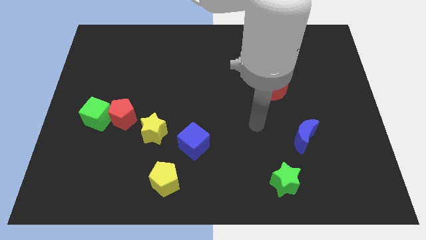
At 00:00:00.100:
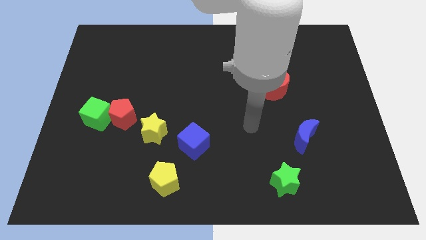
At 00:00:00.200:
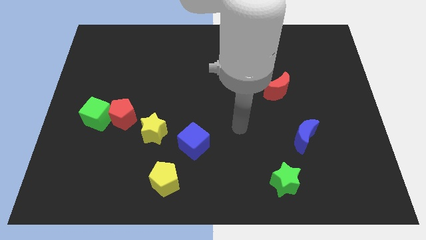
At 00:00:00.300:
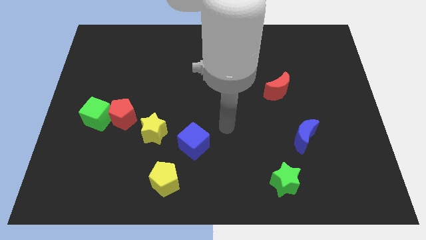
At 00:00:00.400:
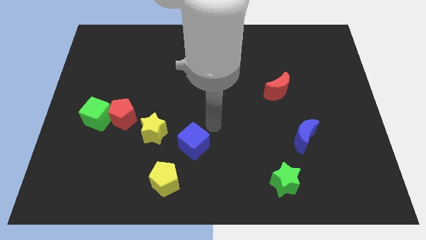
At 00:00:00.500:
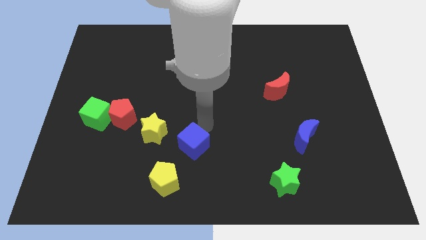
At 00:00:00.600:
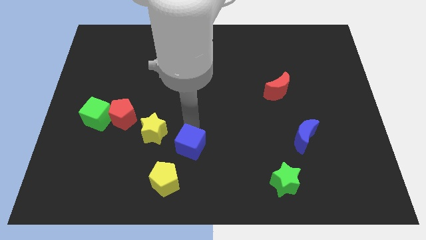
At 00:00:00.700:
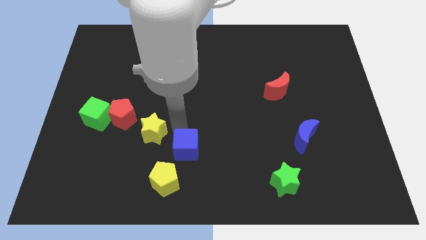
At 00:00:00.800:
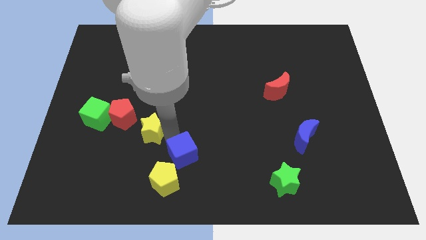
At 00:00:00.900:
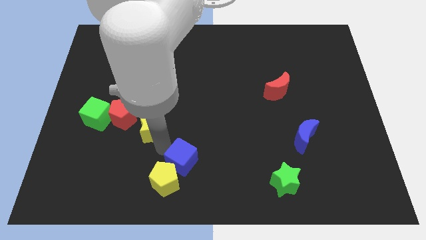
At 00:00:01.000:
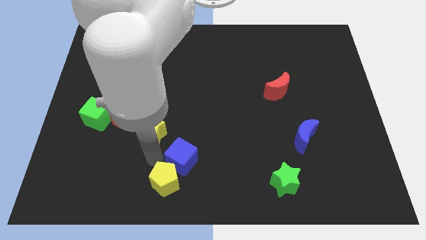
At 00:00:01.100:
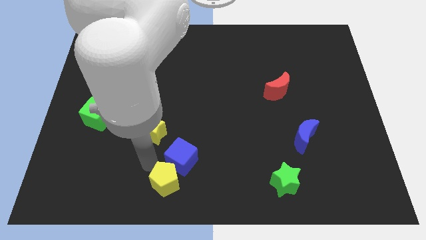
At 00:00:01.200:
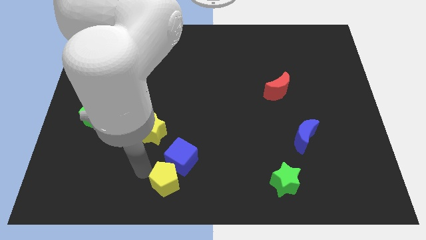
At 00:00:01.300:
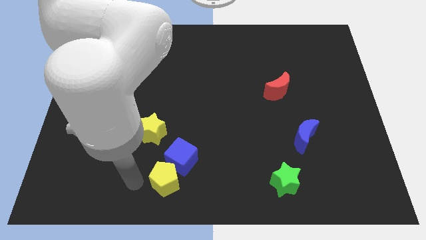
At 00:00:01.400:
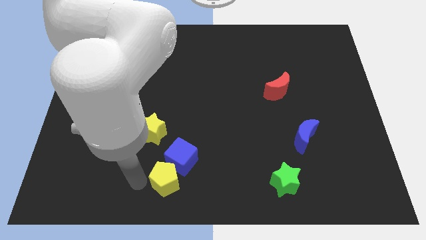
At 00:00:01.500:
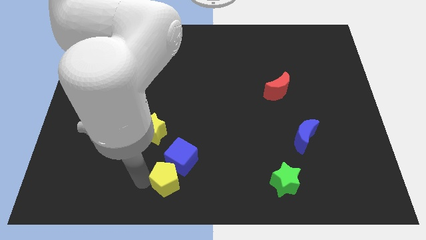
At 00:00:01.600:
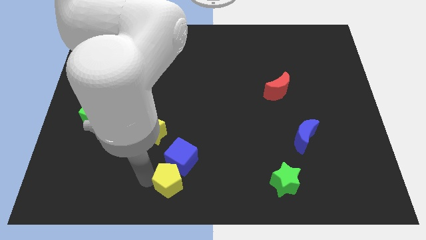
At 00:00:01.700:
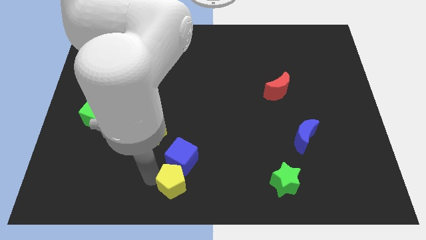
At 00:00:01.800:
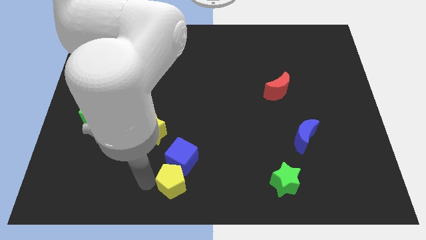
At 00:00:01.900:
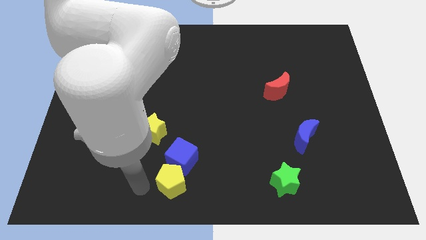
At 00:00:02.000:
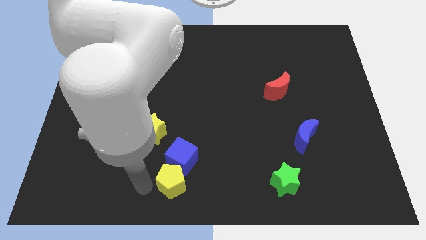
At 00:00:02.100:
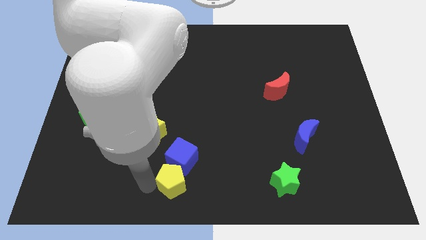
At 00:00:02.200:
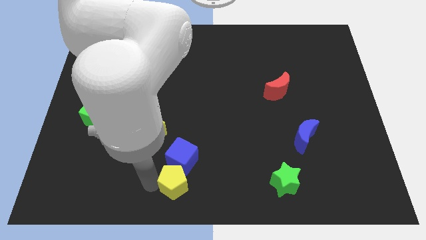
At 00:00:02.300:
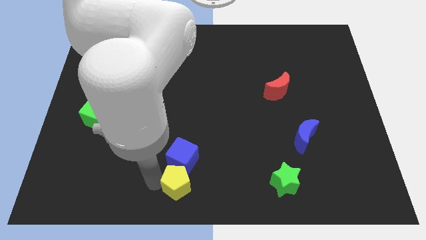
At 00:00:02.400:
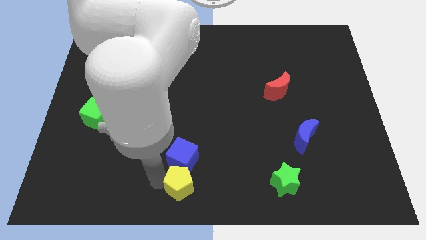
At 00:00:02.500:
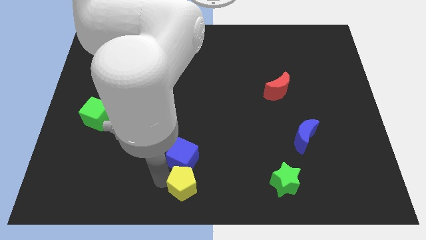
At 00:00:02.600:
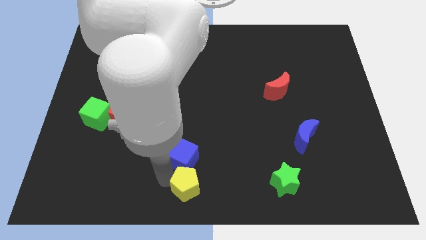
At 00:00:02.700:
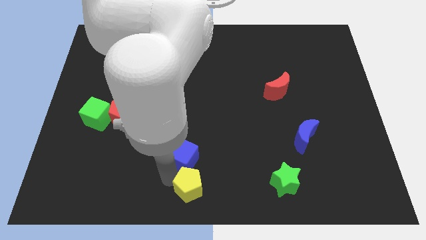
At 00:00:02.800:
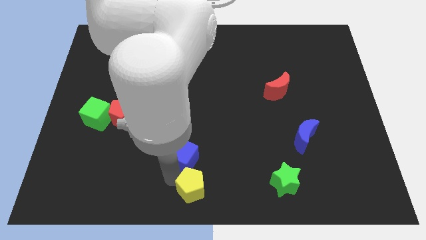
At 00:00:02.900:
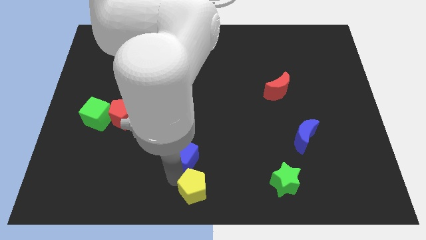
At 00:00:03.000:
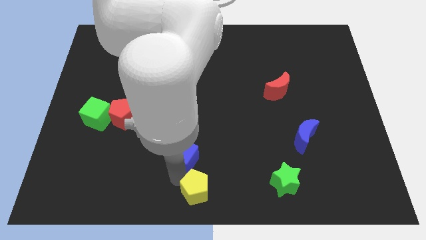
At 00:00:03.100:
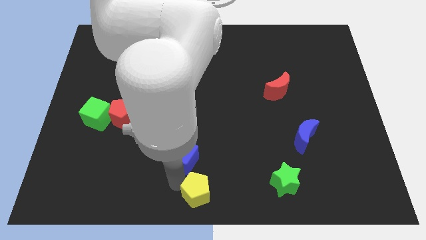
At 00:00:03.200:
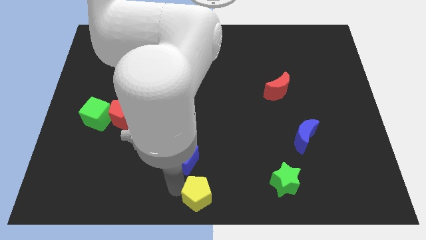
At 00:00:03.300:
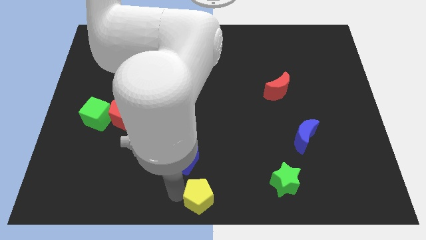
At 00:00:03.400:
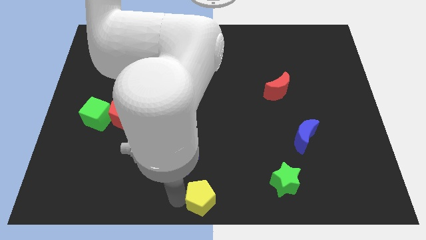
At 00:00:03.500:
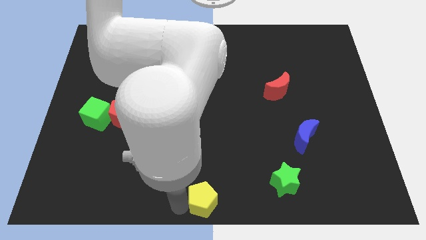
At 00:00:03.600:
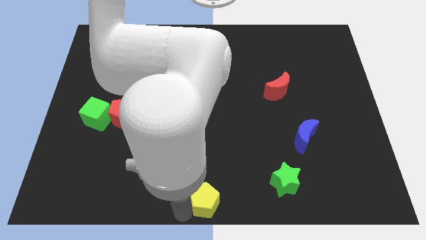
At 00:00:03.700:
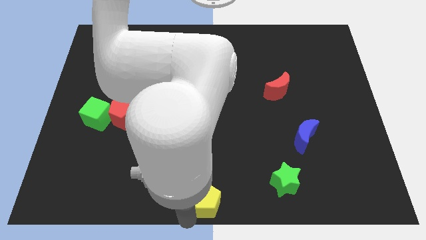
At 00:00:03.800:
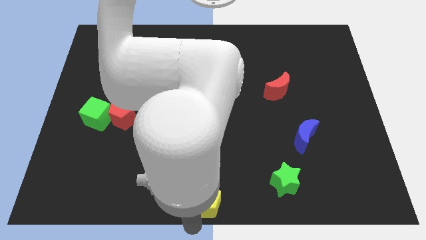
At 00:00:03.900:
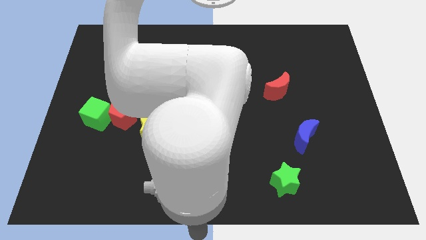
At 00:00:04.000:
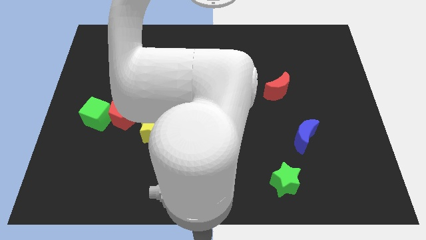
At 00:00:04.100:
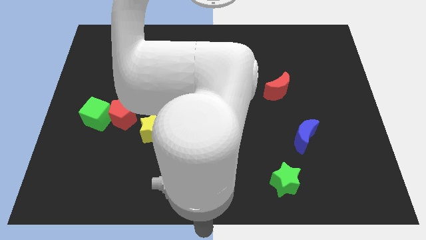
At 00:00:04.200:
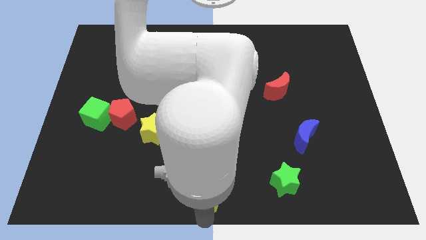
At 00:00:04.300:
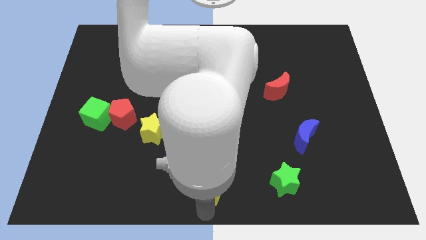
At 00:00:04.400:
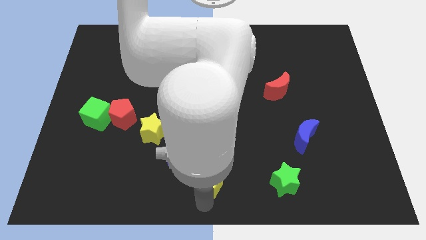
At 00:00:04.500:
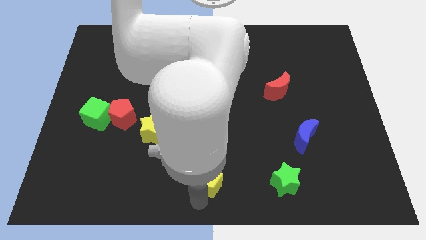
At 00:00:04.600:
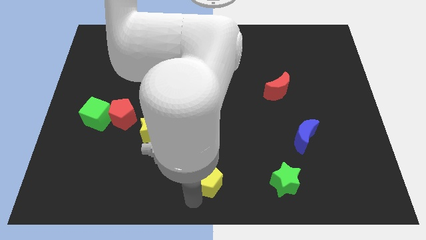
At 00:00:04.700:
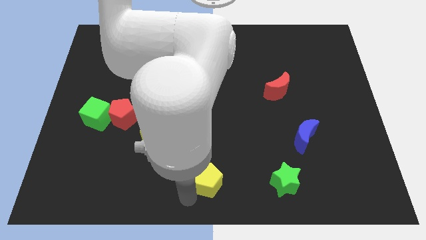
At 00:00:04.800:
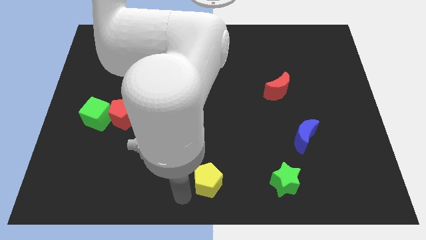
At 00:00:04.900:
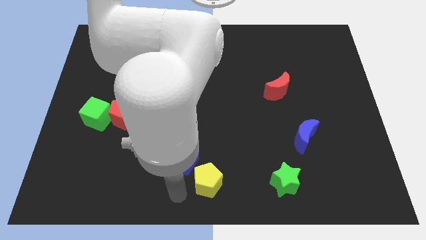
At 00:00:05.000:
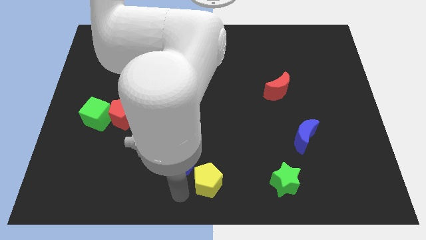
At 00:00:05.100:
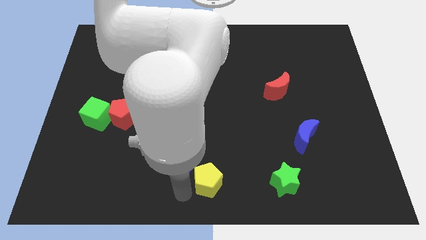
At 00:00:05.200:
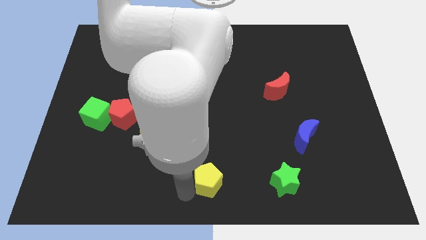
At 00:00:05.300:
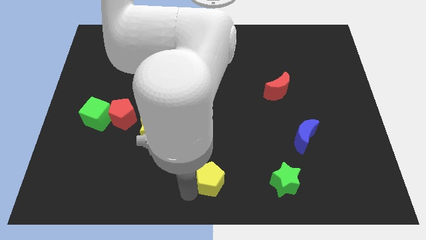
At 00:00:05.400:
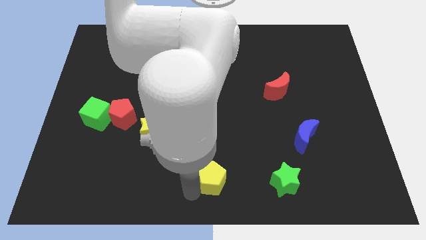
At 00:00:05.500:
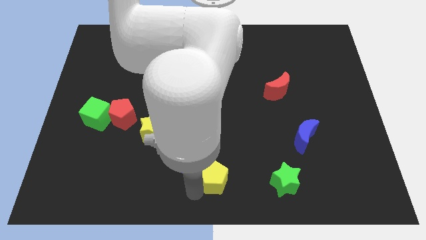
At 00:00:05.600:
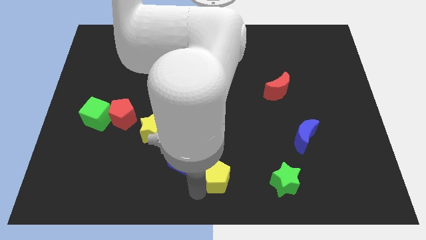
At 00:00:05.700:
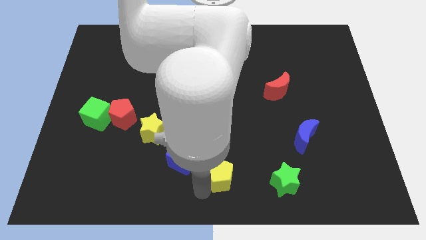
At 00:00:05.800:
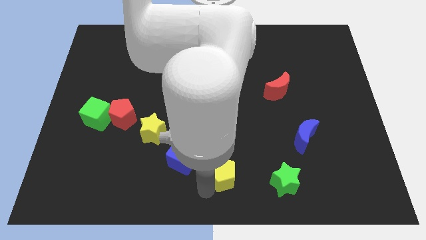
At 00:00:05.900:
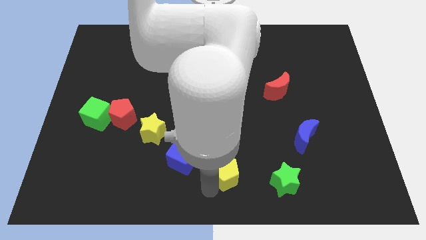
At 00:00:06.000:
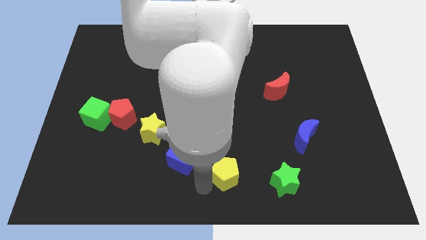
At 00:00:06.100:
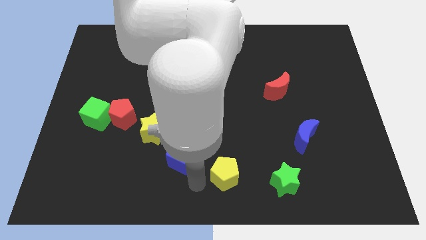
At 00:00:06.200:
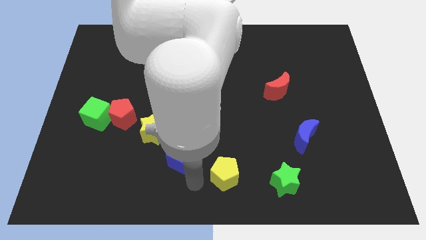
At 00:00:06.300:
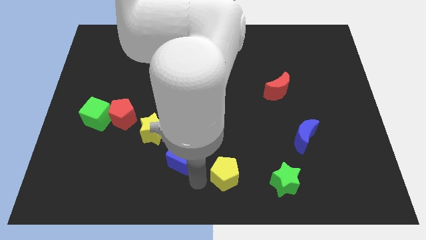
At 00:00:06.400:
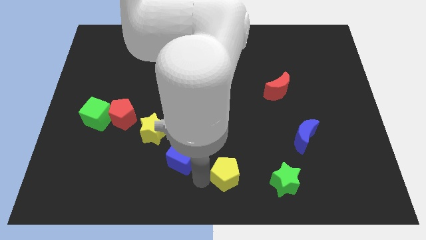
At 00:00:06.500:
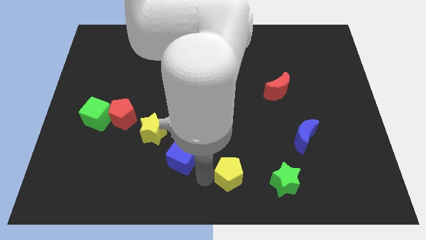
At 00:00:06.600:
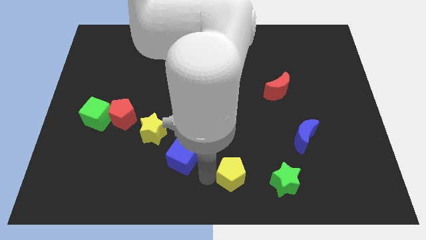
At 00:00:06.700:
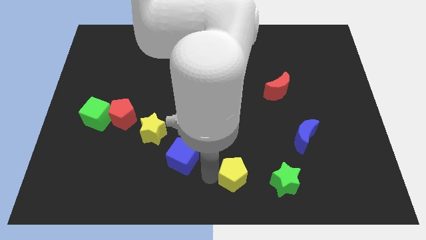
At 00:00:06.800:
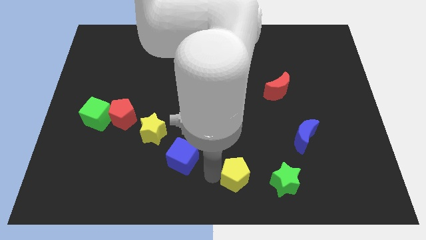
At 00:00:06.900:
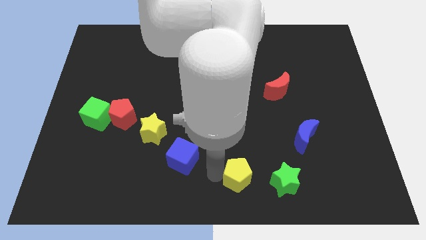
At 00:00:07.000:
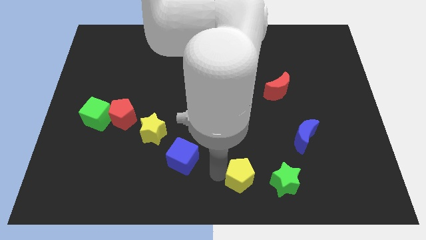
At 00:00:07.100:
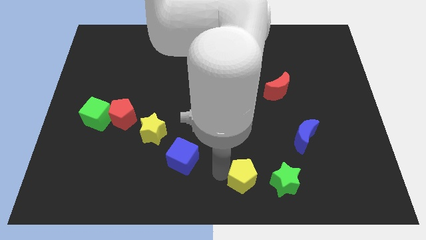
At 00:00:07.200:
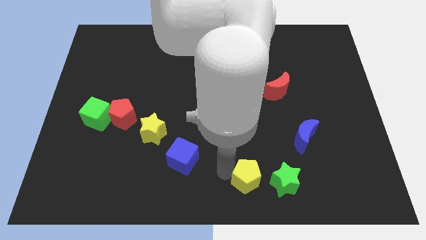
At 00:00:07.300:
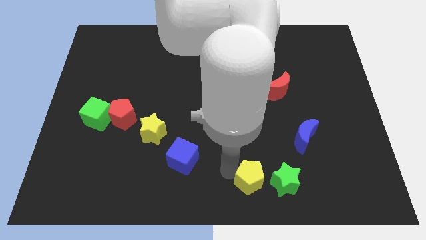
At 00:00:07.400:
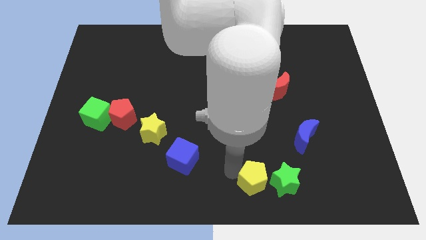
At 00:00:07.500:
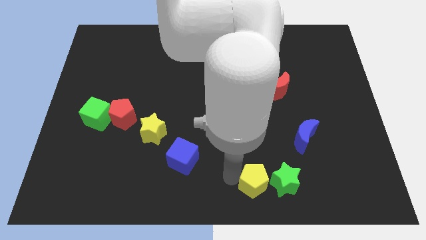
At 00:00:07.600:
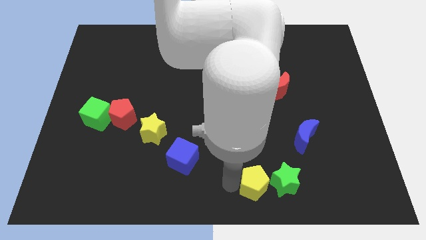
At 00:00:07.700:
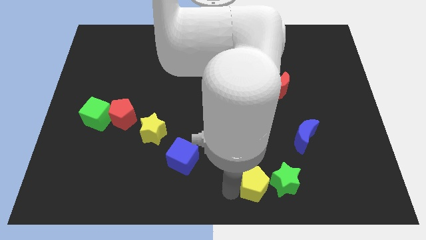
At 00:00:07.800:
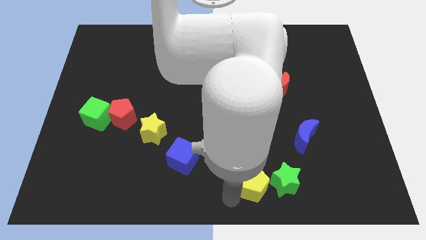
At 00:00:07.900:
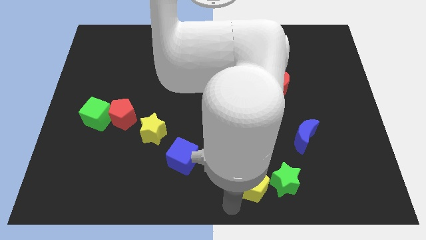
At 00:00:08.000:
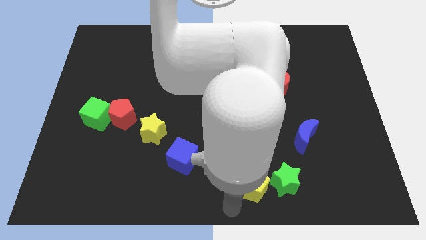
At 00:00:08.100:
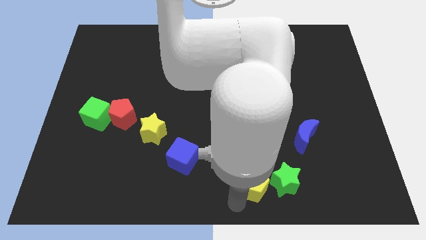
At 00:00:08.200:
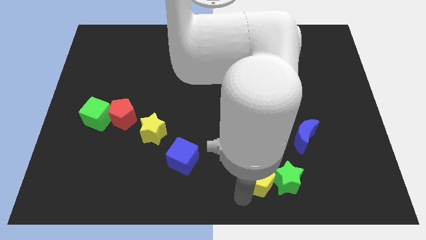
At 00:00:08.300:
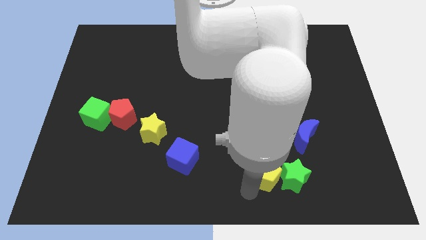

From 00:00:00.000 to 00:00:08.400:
move the yellow pentagon to the right

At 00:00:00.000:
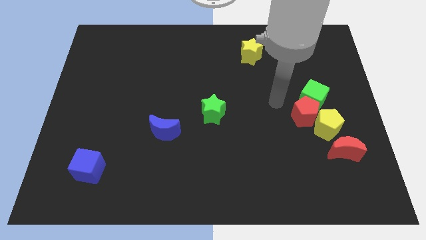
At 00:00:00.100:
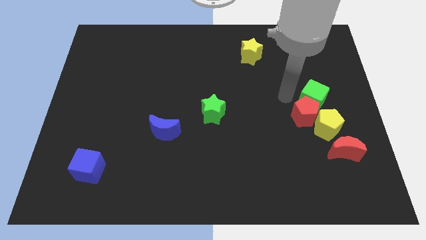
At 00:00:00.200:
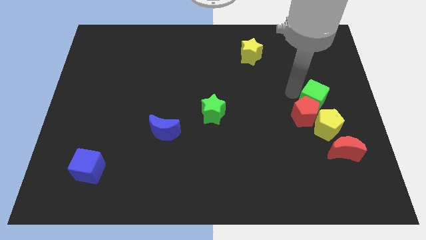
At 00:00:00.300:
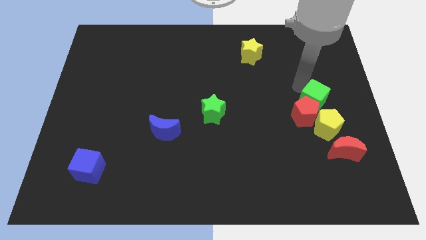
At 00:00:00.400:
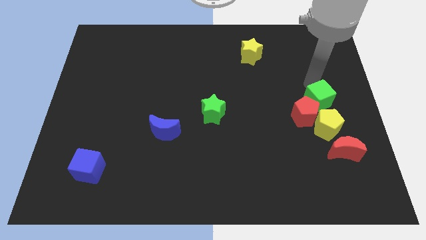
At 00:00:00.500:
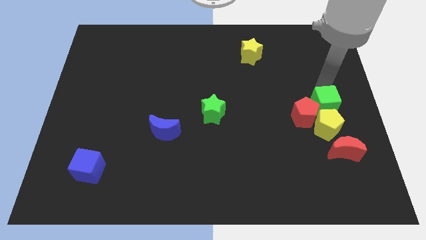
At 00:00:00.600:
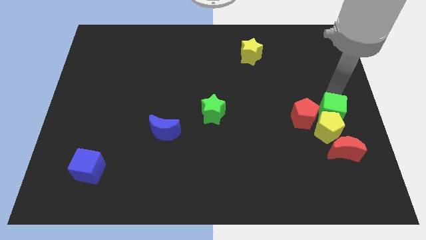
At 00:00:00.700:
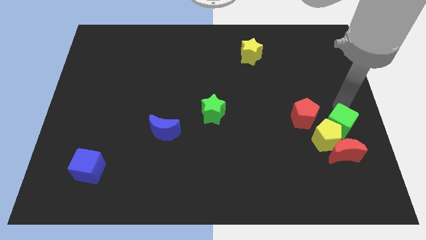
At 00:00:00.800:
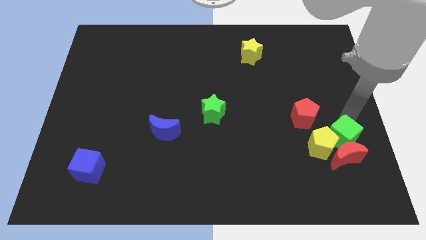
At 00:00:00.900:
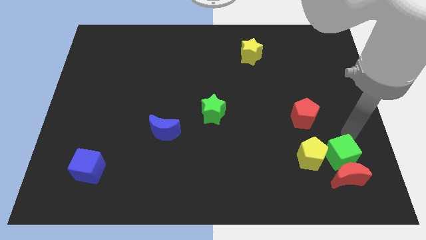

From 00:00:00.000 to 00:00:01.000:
slide the yellow pentagon slightly downwards and left
